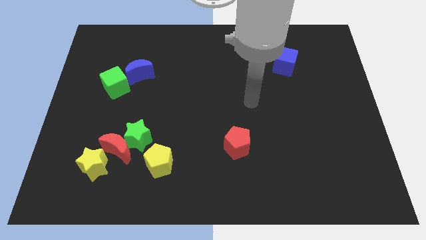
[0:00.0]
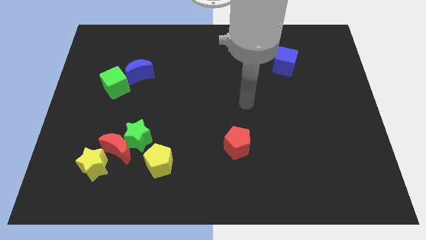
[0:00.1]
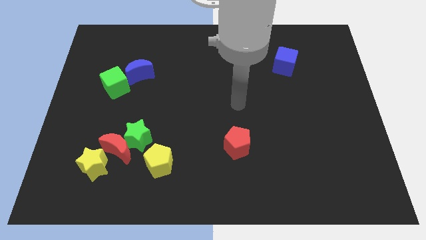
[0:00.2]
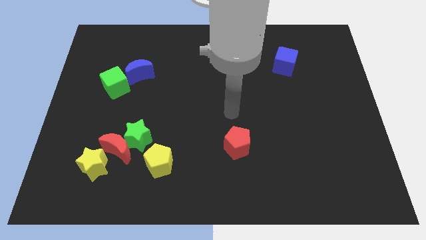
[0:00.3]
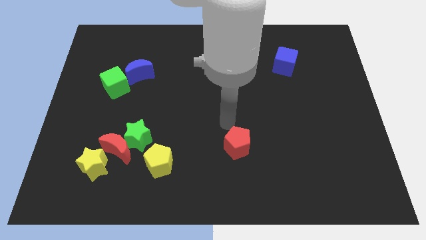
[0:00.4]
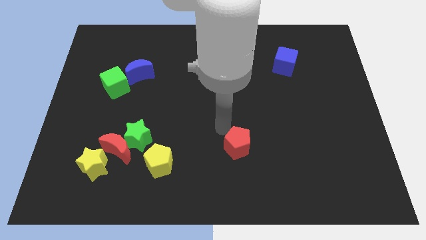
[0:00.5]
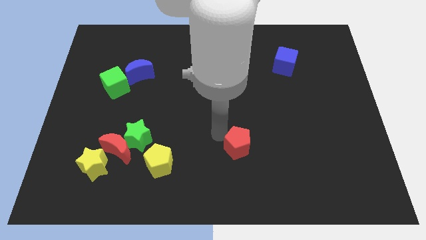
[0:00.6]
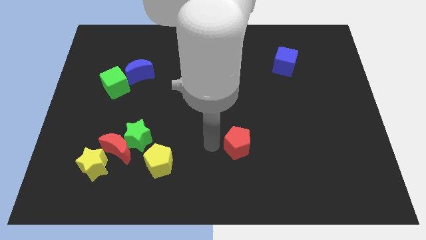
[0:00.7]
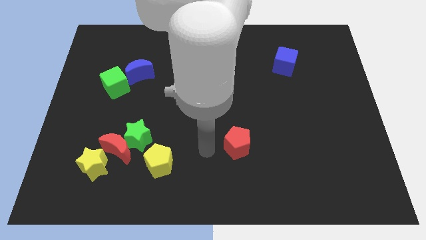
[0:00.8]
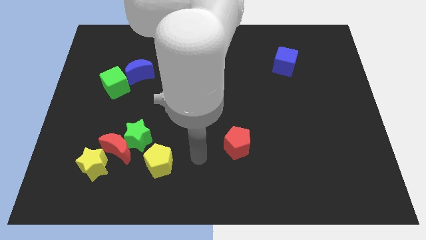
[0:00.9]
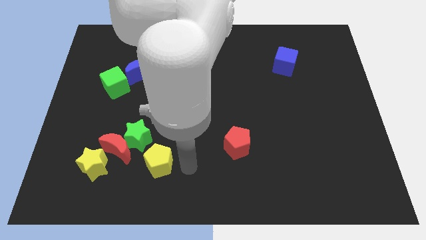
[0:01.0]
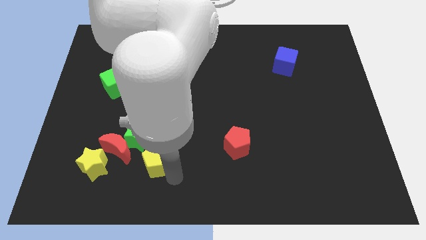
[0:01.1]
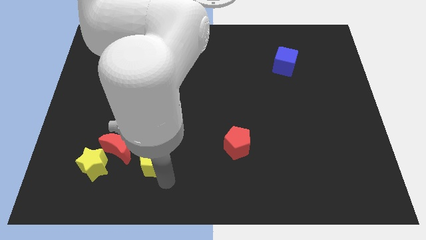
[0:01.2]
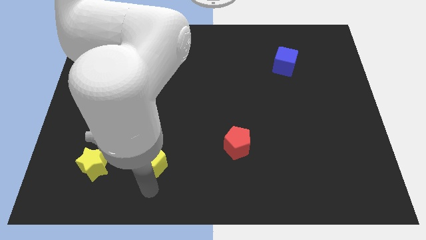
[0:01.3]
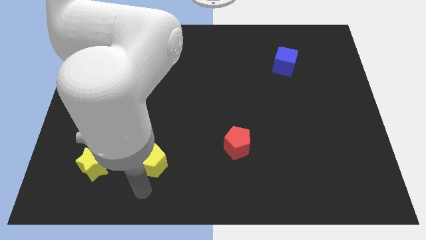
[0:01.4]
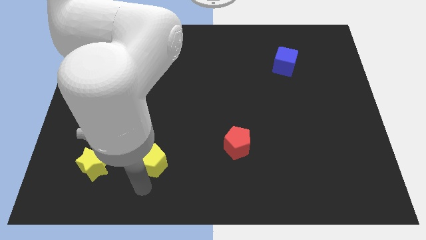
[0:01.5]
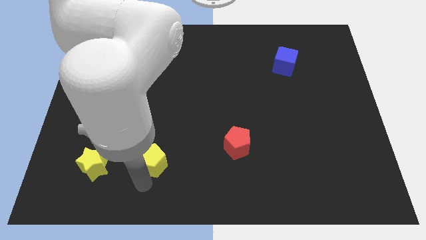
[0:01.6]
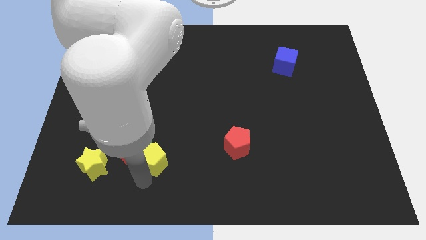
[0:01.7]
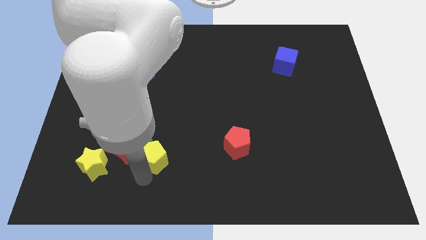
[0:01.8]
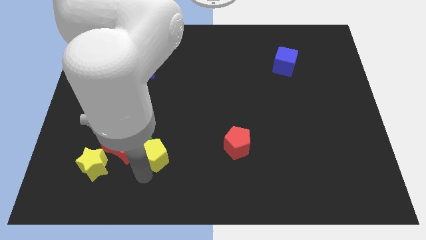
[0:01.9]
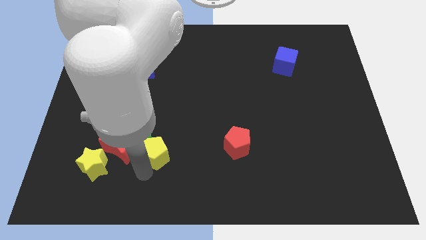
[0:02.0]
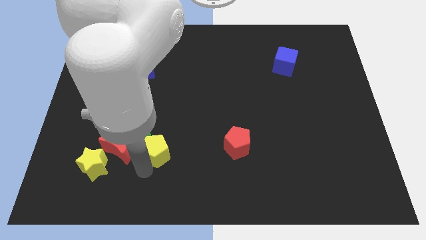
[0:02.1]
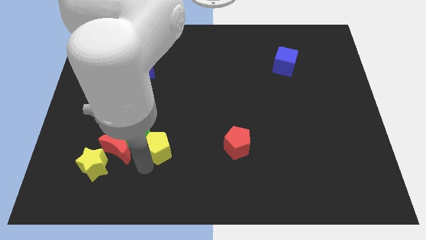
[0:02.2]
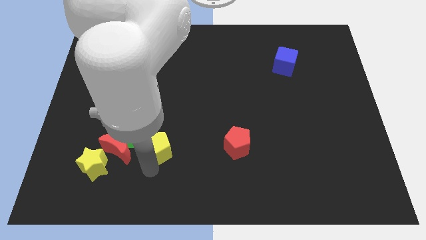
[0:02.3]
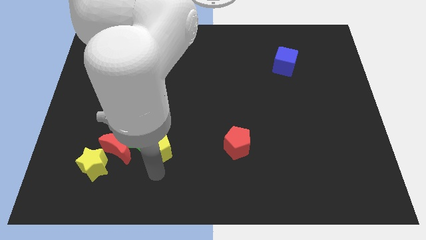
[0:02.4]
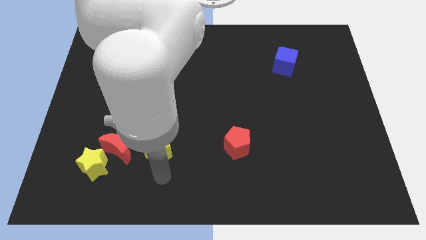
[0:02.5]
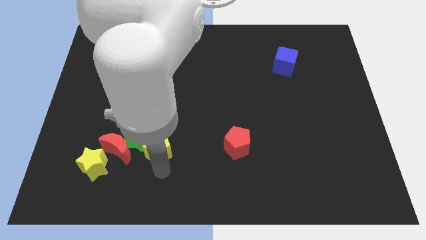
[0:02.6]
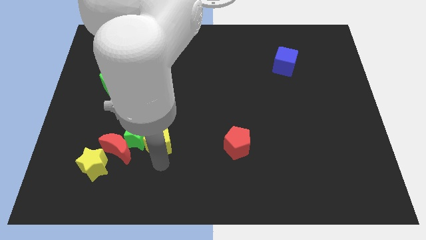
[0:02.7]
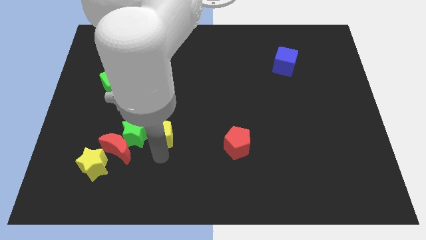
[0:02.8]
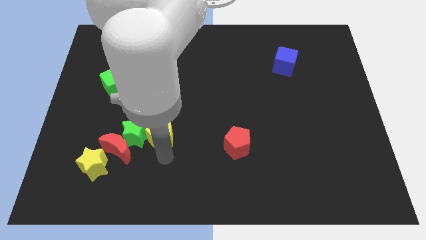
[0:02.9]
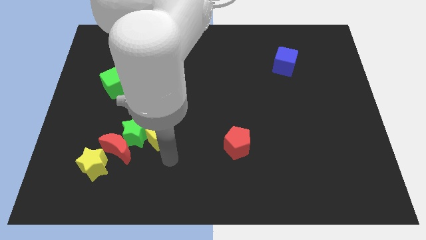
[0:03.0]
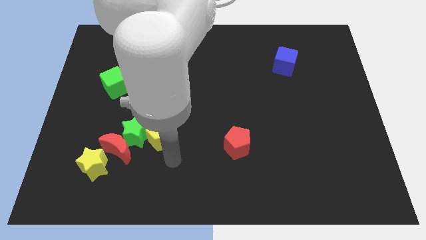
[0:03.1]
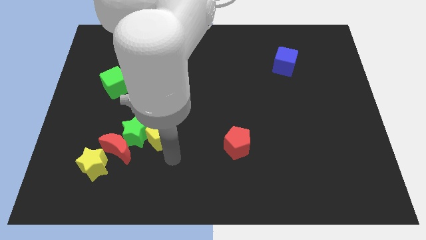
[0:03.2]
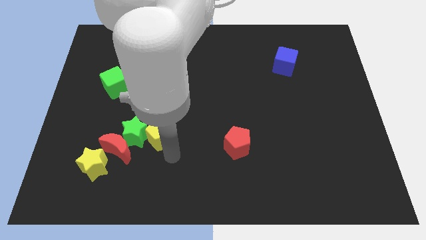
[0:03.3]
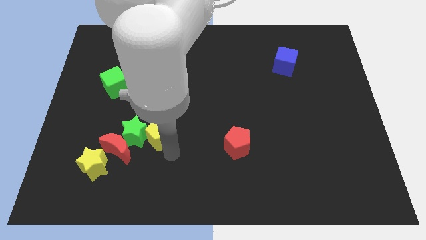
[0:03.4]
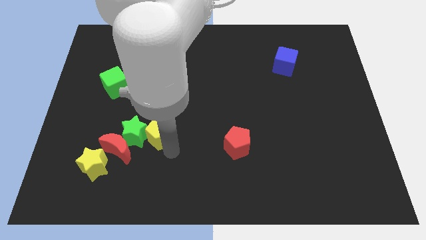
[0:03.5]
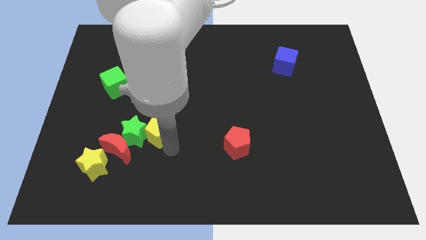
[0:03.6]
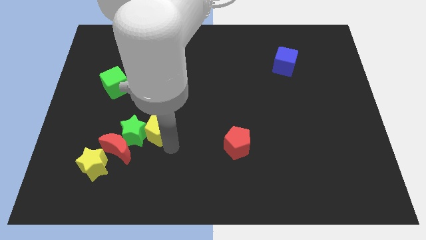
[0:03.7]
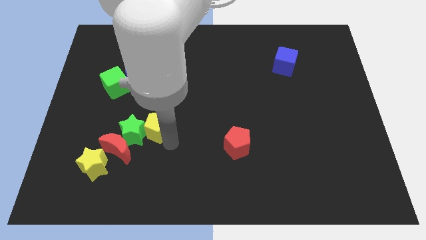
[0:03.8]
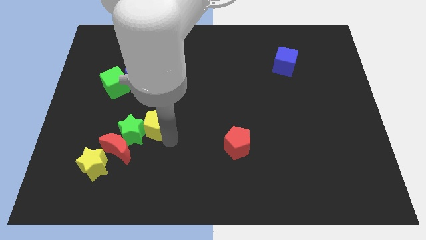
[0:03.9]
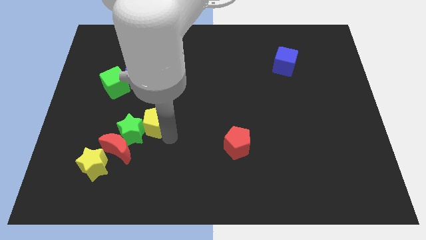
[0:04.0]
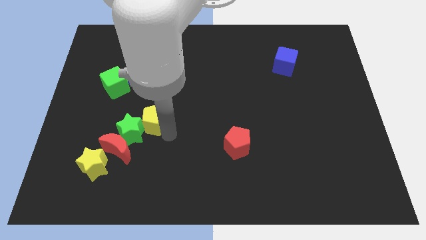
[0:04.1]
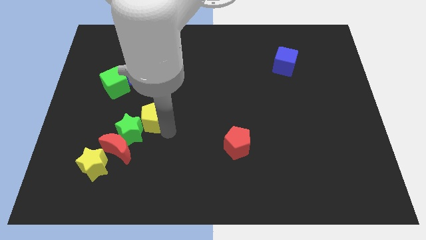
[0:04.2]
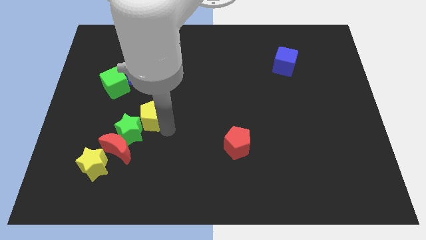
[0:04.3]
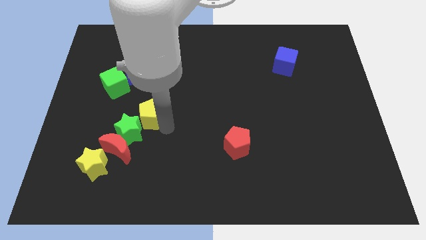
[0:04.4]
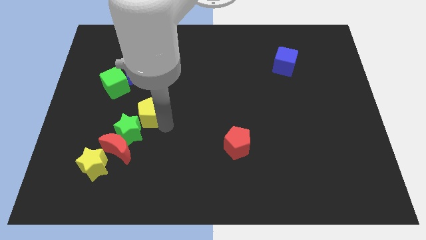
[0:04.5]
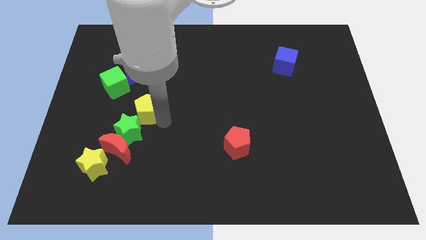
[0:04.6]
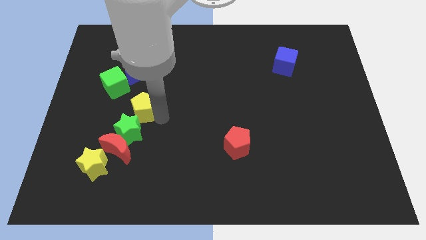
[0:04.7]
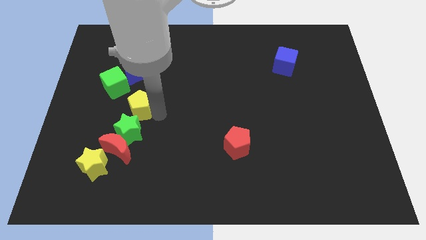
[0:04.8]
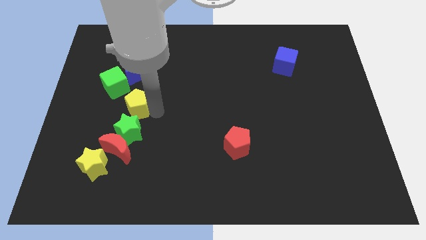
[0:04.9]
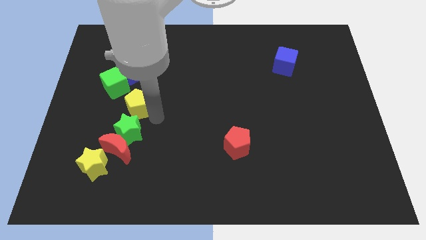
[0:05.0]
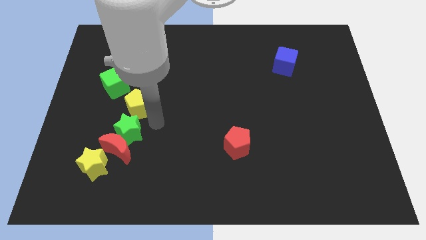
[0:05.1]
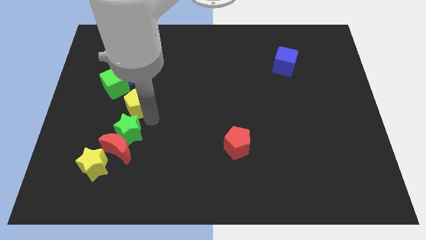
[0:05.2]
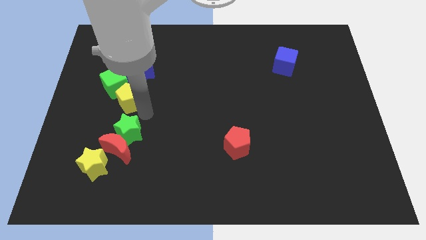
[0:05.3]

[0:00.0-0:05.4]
push the yellow pentagon towards the green cube

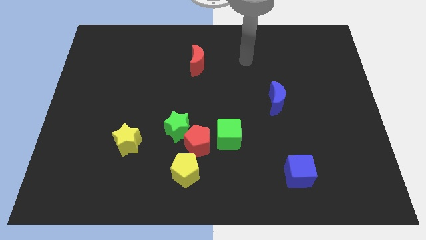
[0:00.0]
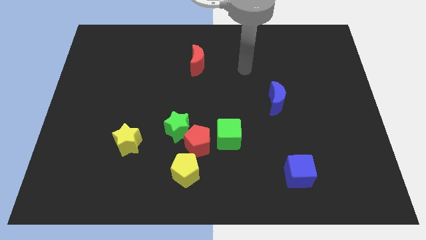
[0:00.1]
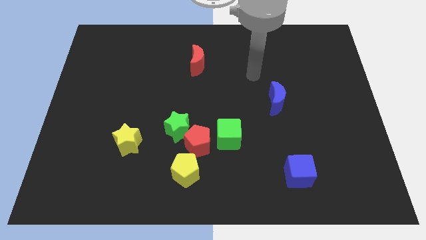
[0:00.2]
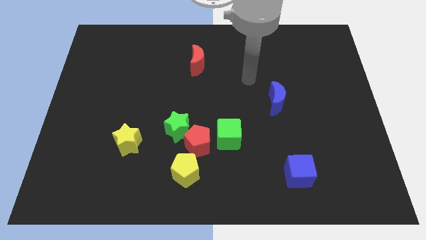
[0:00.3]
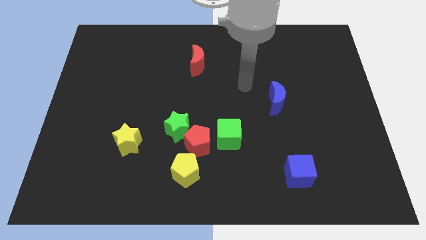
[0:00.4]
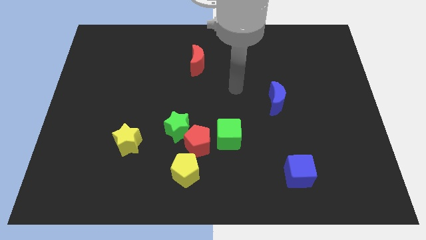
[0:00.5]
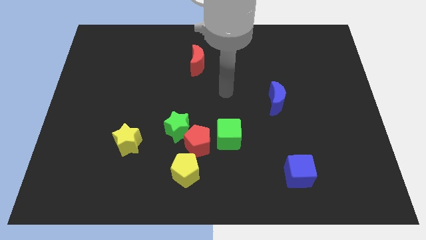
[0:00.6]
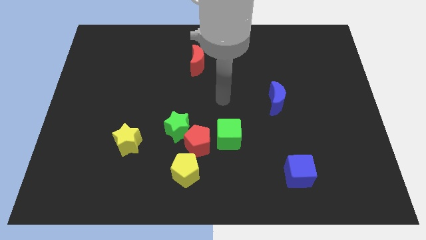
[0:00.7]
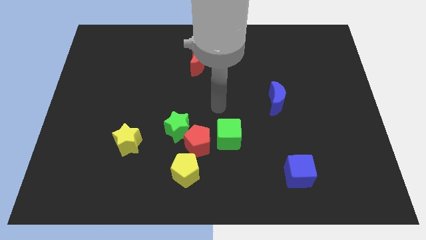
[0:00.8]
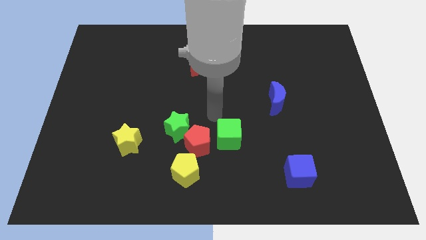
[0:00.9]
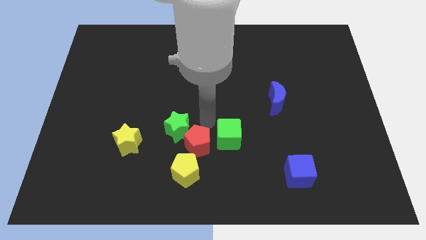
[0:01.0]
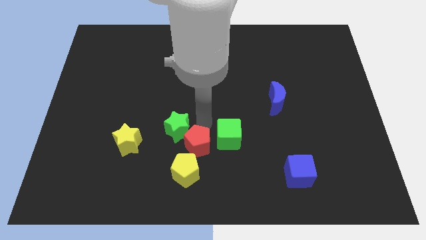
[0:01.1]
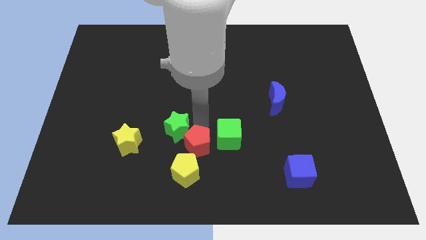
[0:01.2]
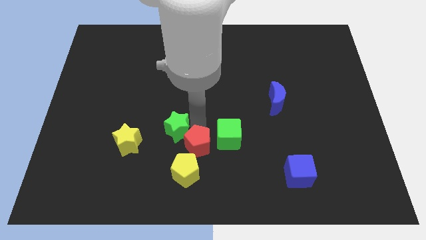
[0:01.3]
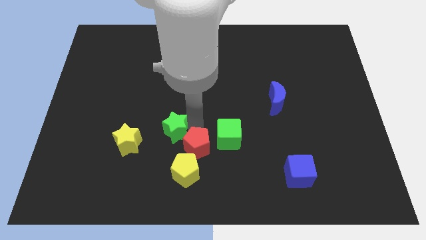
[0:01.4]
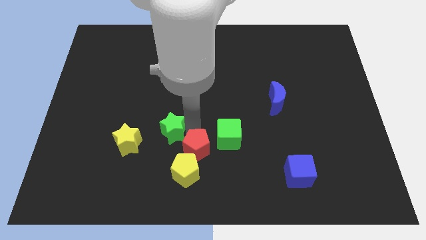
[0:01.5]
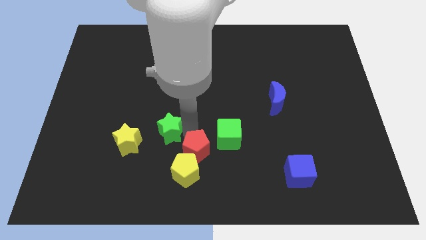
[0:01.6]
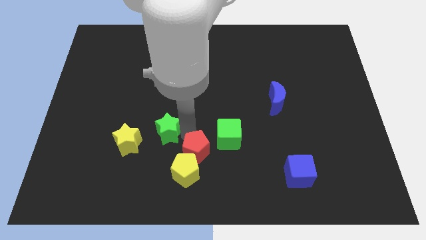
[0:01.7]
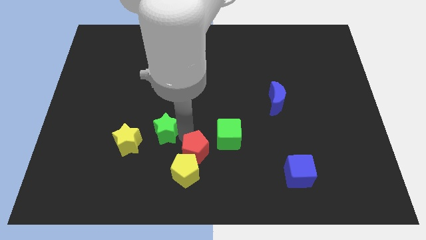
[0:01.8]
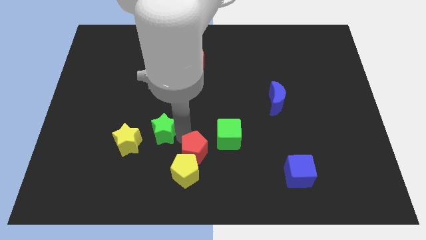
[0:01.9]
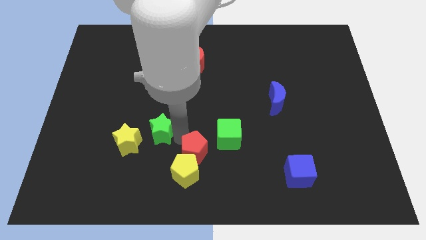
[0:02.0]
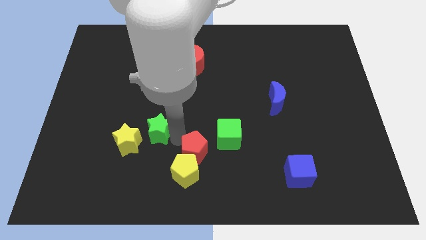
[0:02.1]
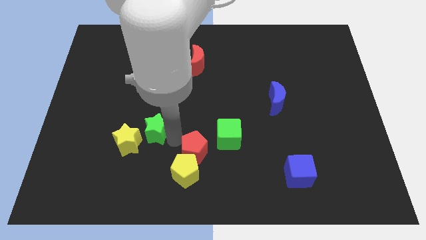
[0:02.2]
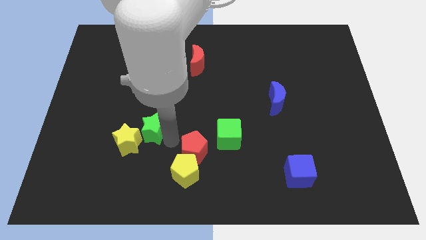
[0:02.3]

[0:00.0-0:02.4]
slide the green star next to the yellow star
